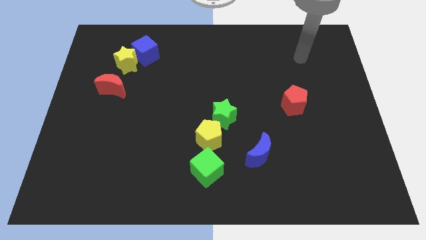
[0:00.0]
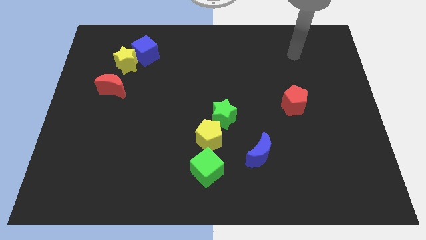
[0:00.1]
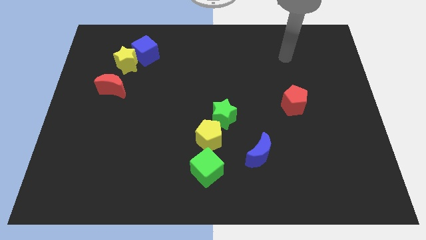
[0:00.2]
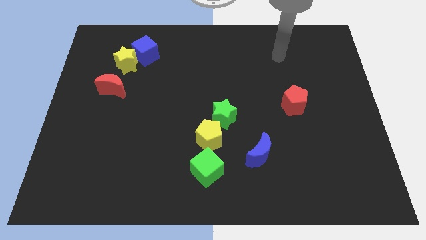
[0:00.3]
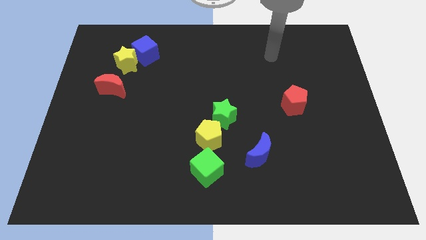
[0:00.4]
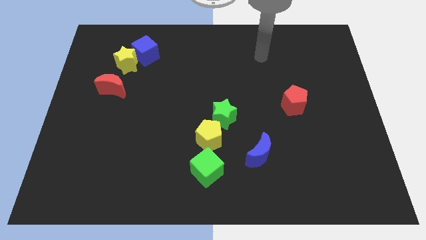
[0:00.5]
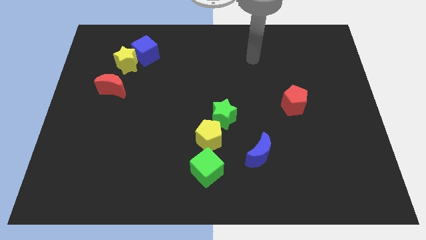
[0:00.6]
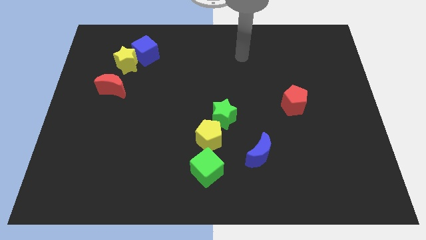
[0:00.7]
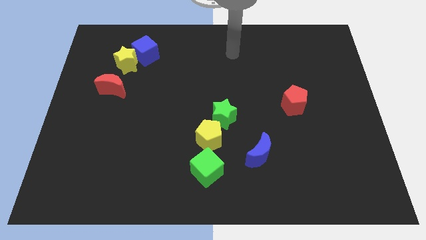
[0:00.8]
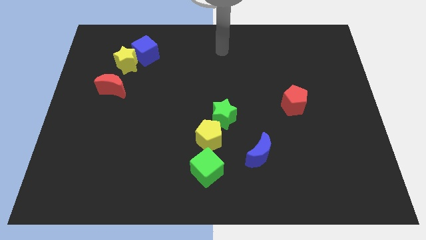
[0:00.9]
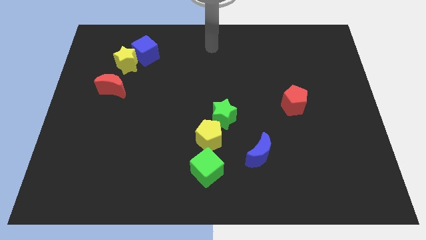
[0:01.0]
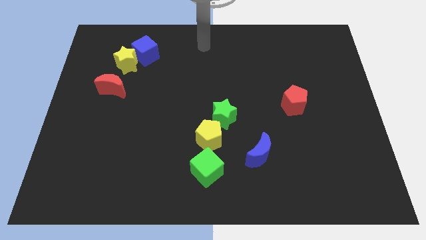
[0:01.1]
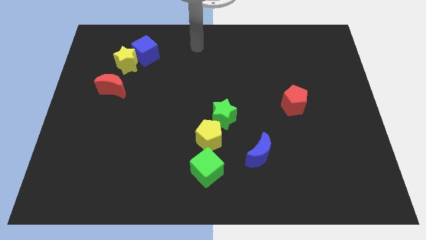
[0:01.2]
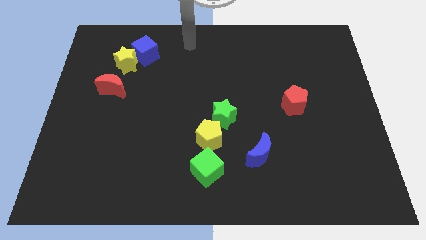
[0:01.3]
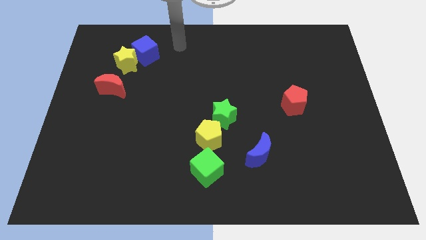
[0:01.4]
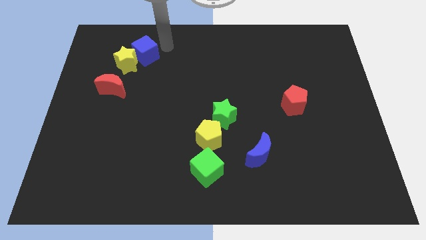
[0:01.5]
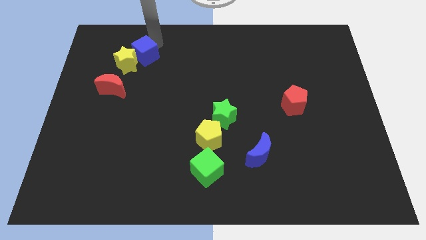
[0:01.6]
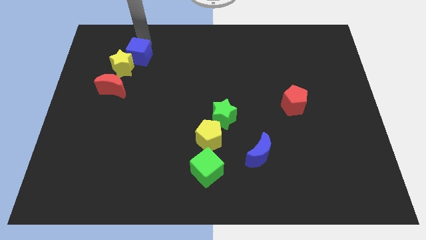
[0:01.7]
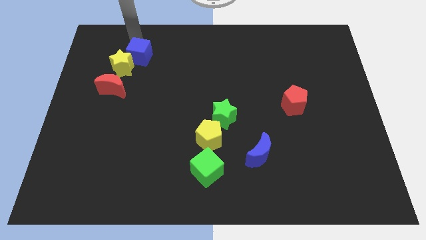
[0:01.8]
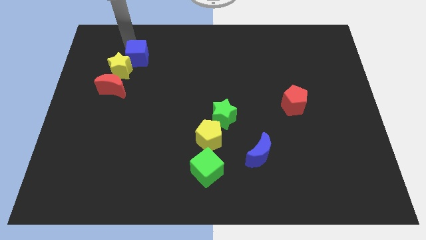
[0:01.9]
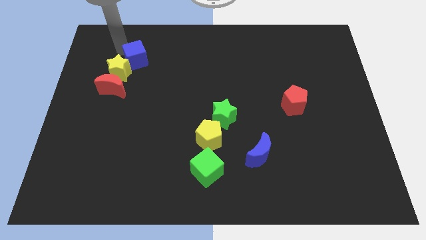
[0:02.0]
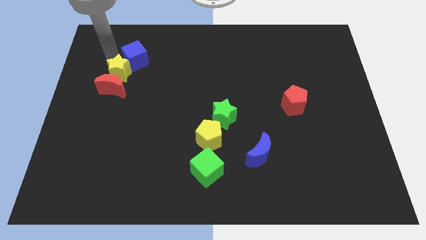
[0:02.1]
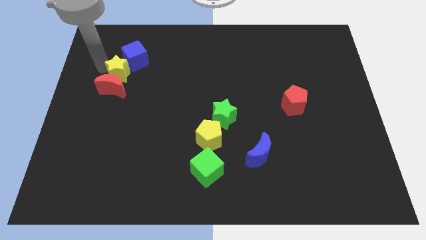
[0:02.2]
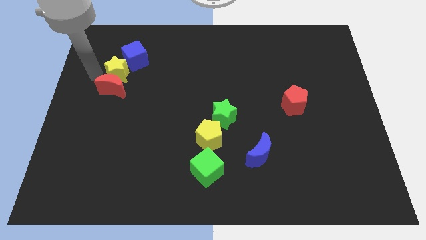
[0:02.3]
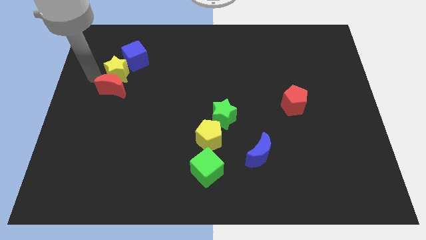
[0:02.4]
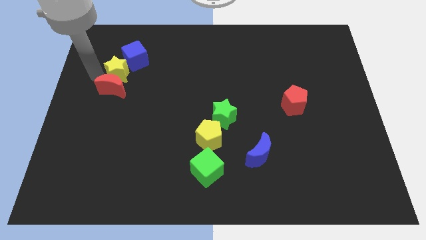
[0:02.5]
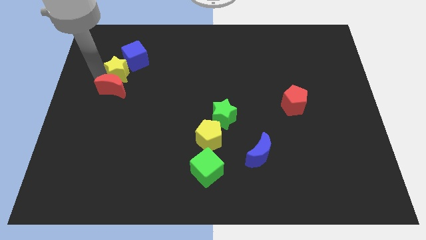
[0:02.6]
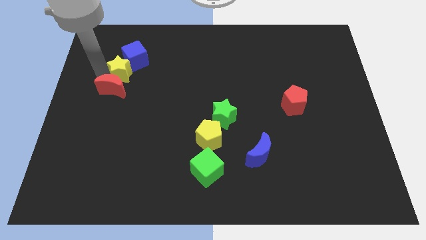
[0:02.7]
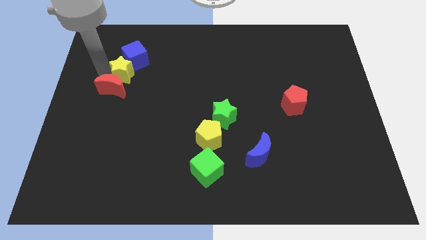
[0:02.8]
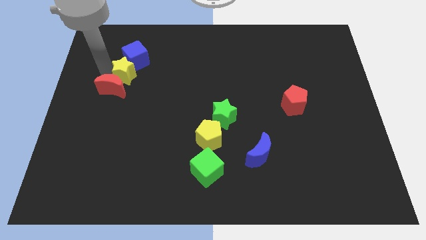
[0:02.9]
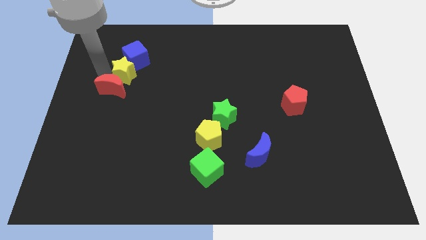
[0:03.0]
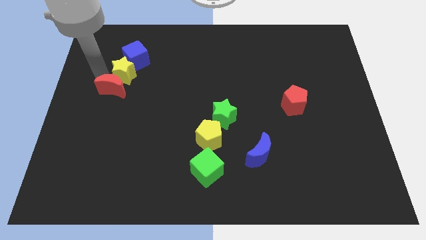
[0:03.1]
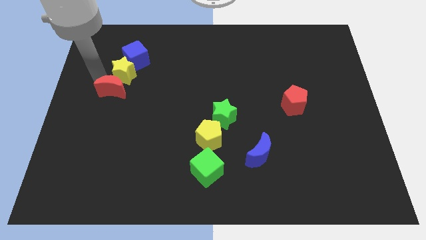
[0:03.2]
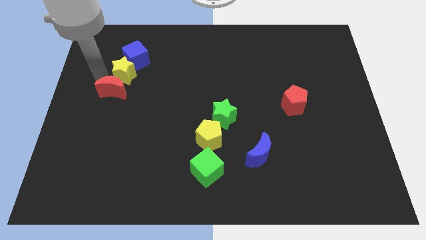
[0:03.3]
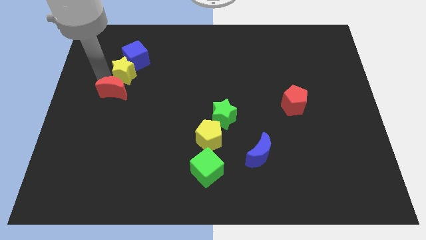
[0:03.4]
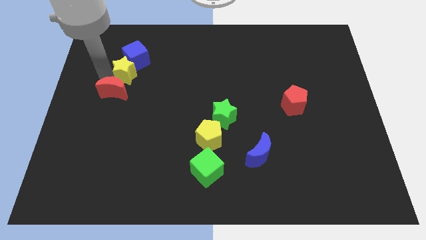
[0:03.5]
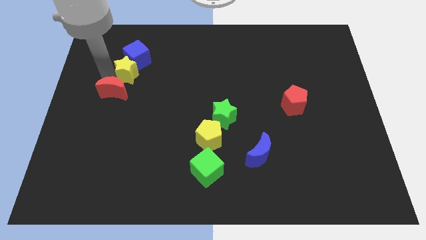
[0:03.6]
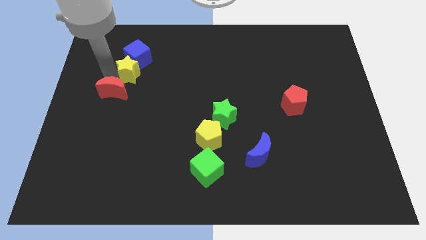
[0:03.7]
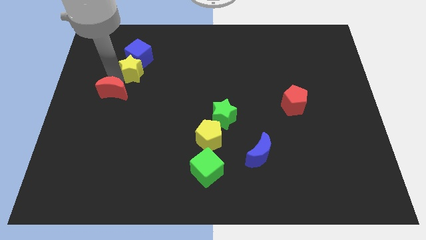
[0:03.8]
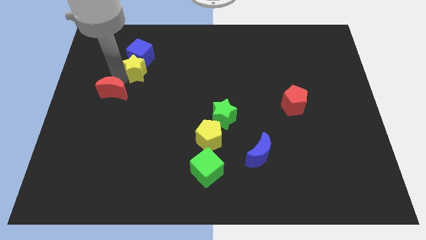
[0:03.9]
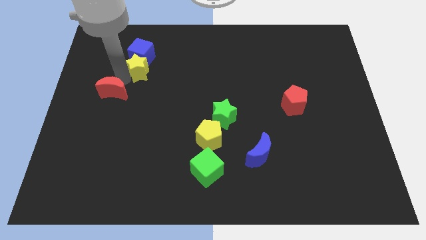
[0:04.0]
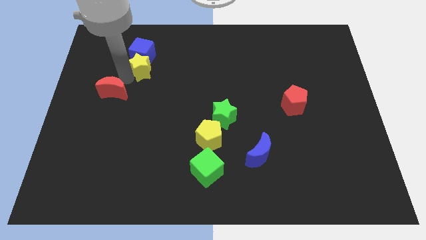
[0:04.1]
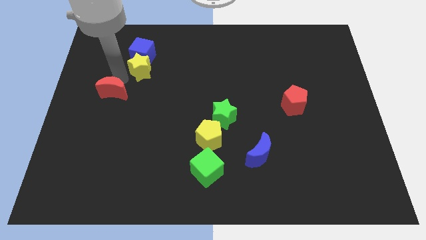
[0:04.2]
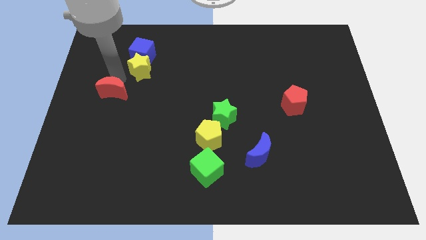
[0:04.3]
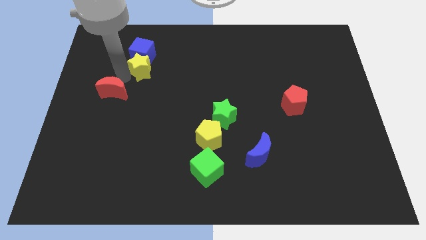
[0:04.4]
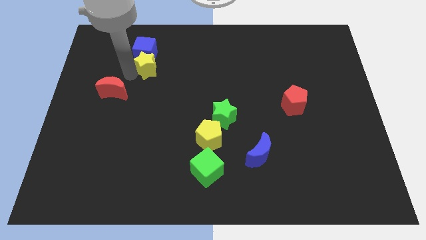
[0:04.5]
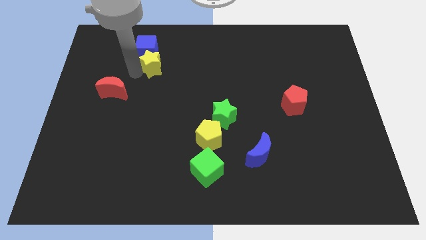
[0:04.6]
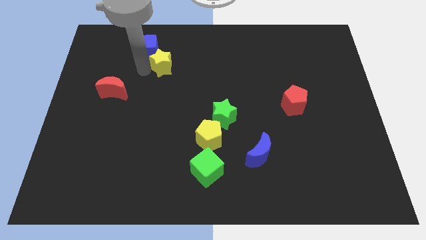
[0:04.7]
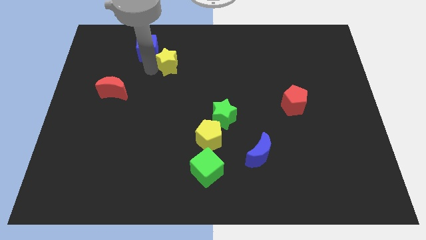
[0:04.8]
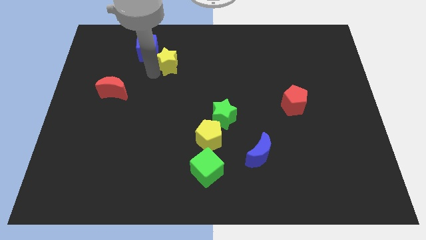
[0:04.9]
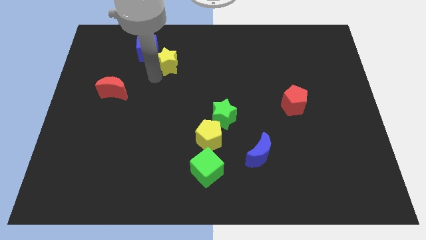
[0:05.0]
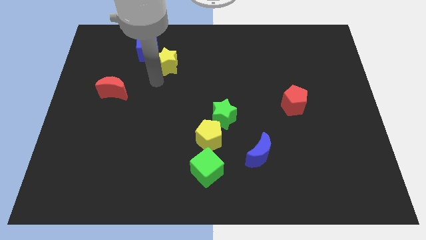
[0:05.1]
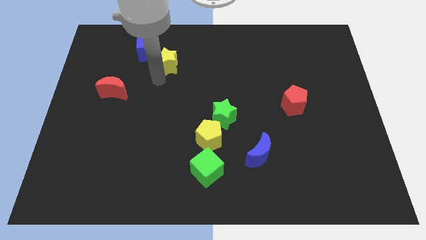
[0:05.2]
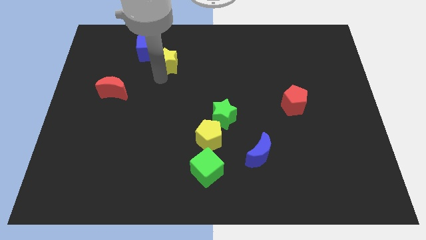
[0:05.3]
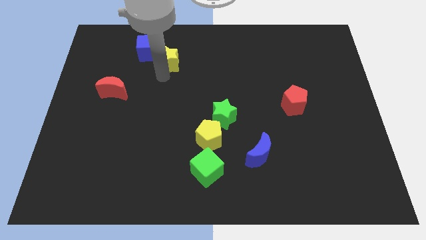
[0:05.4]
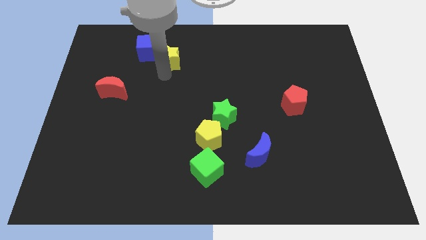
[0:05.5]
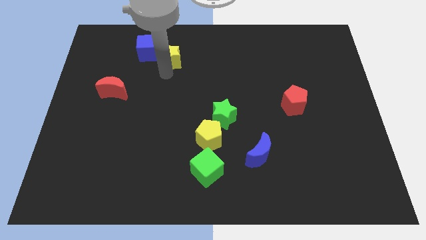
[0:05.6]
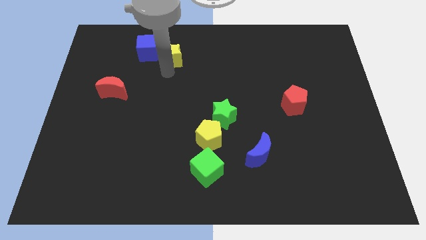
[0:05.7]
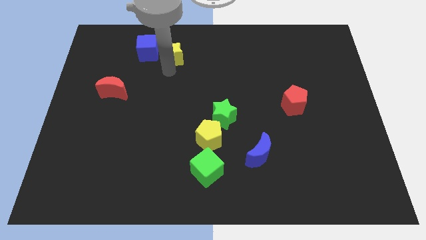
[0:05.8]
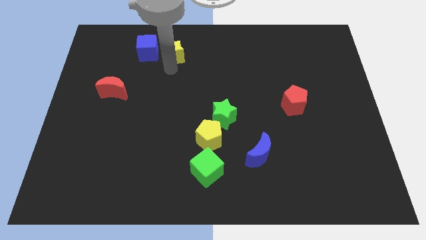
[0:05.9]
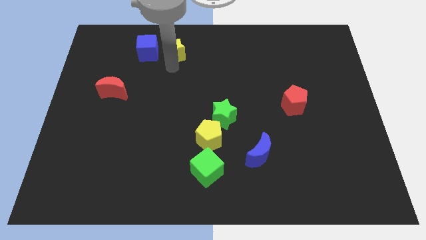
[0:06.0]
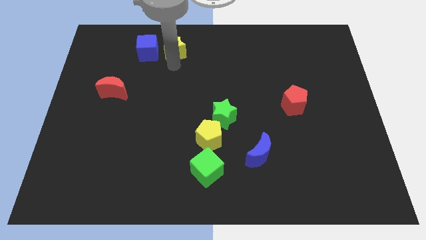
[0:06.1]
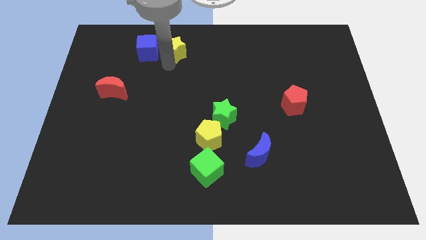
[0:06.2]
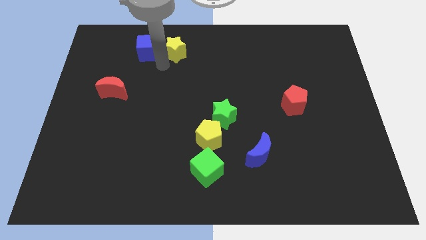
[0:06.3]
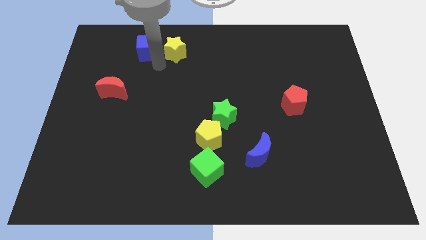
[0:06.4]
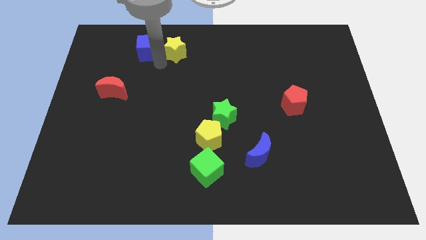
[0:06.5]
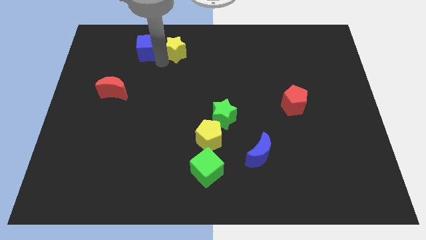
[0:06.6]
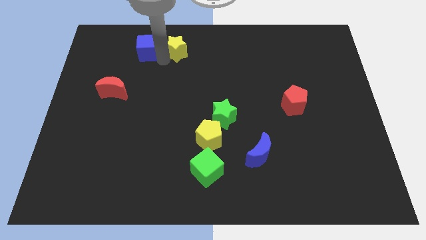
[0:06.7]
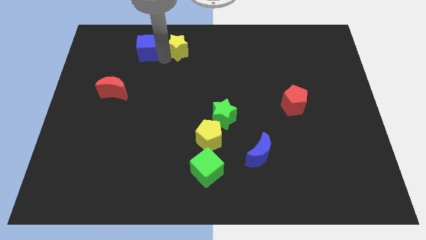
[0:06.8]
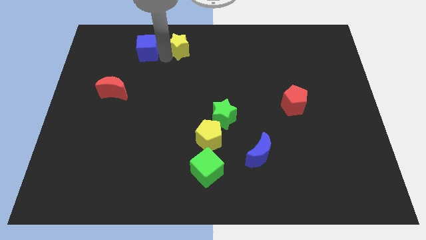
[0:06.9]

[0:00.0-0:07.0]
put the yellow star to the top side

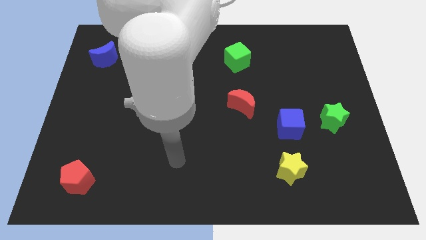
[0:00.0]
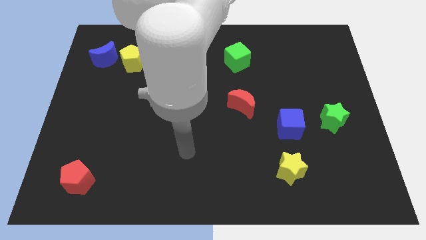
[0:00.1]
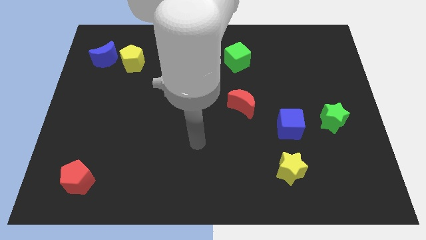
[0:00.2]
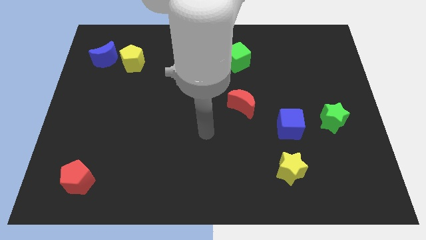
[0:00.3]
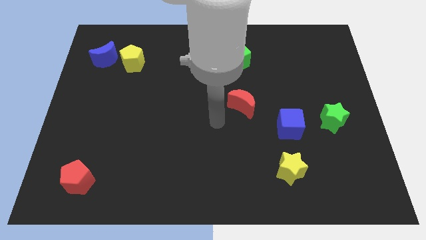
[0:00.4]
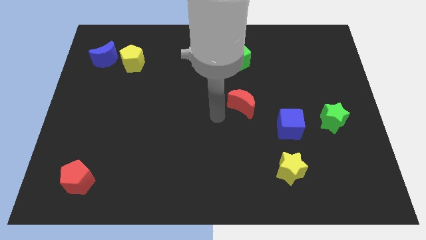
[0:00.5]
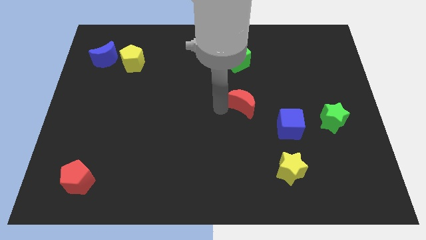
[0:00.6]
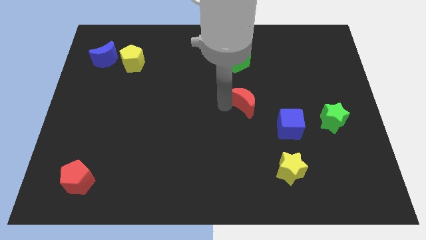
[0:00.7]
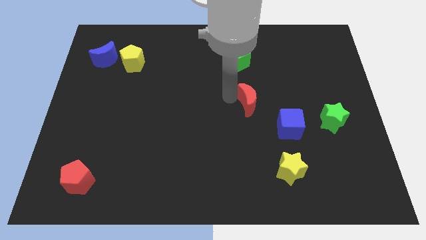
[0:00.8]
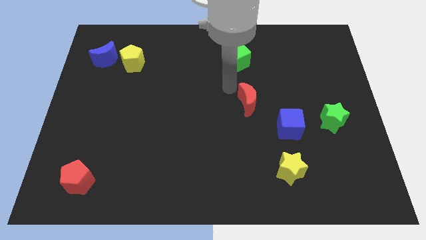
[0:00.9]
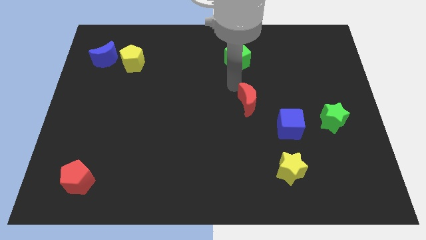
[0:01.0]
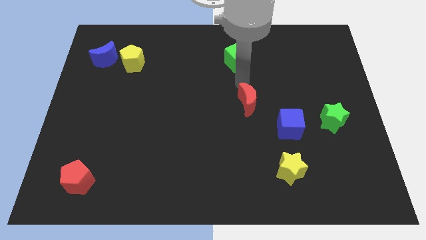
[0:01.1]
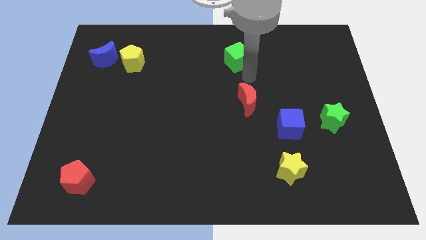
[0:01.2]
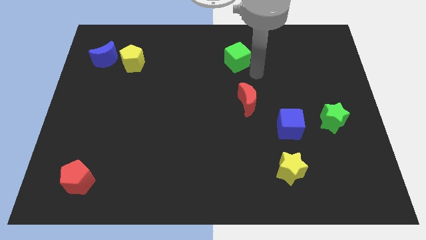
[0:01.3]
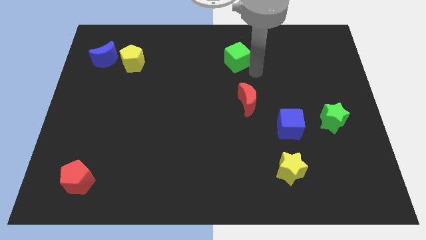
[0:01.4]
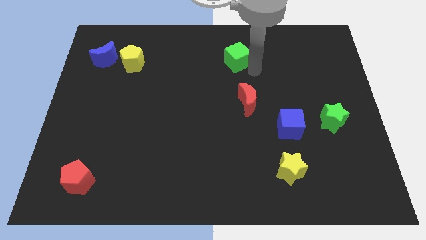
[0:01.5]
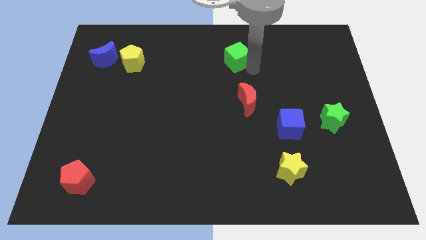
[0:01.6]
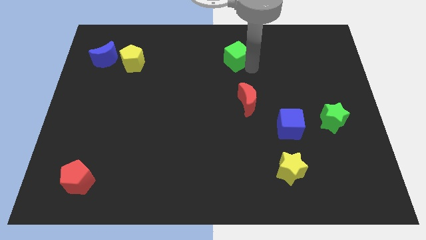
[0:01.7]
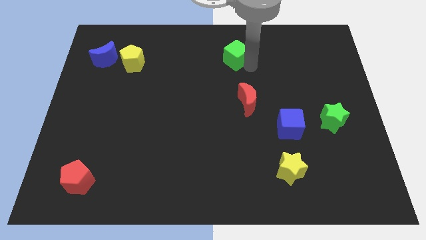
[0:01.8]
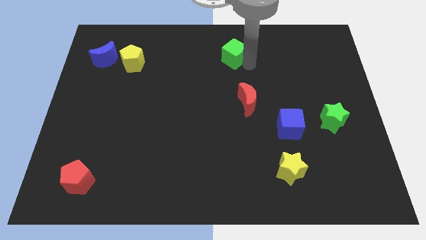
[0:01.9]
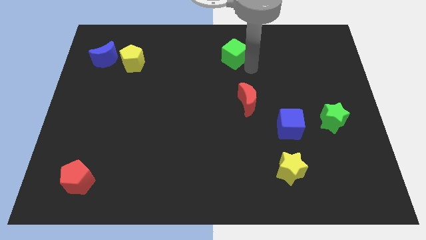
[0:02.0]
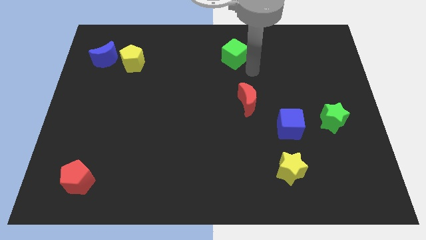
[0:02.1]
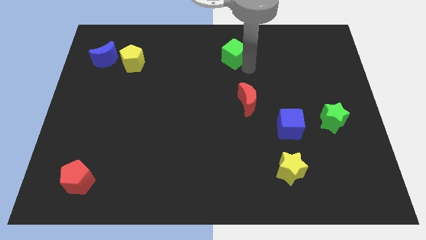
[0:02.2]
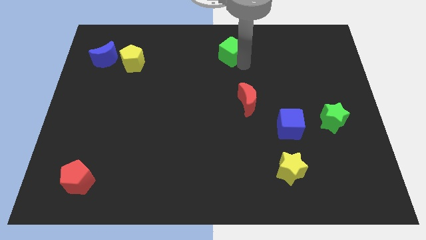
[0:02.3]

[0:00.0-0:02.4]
put the green cube to the top side
